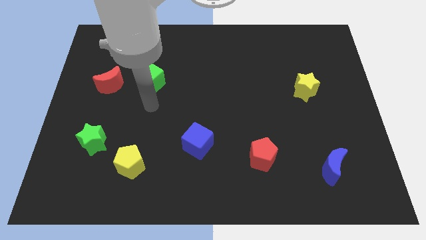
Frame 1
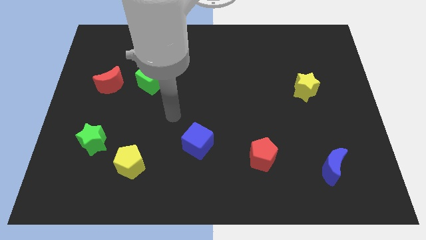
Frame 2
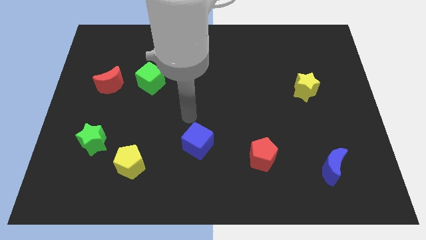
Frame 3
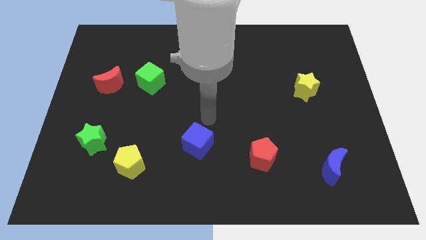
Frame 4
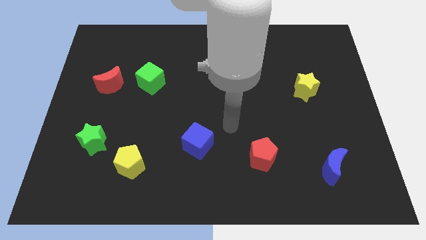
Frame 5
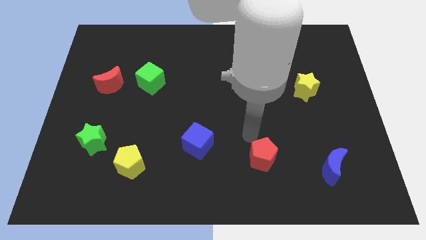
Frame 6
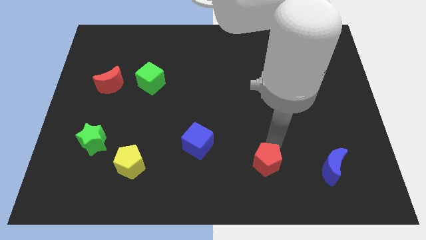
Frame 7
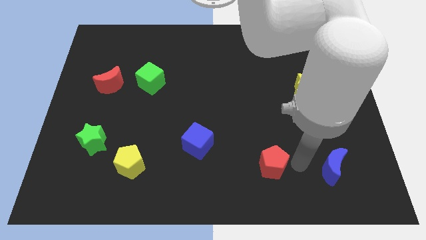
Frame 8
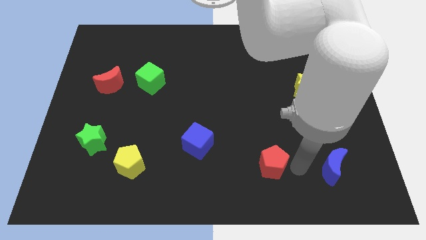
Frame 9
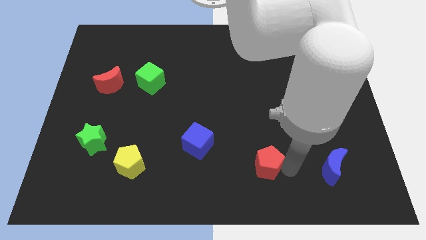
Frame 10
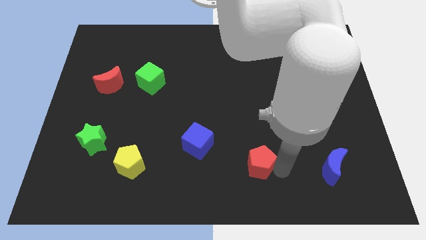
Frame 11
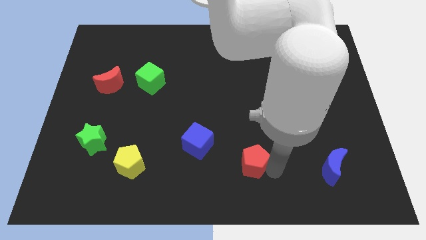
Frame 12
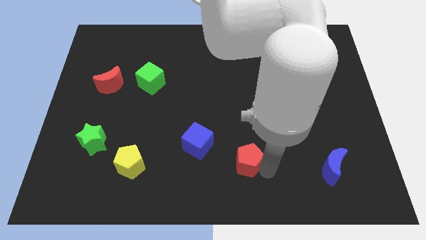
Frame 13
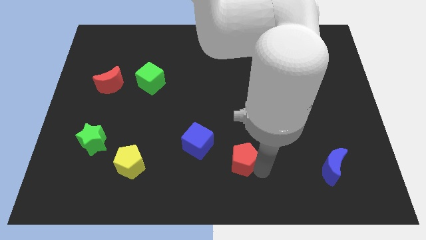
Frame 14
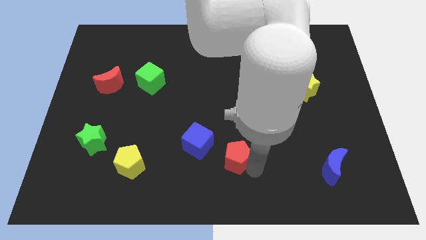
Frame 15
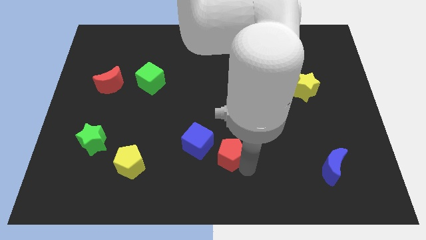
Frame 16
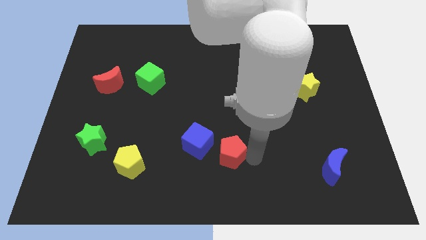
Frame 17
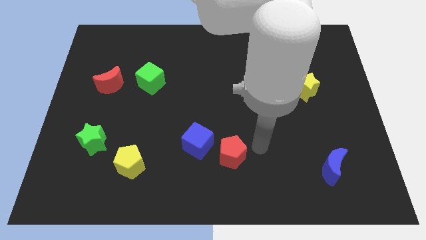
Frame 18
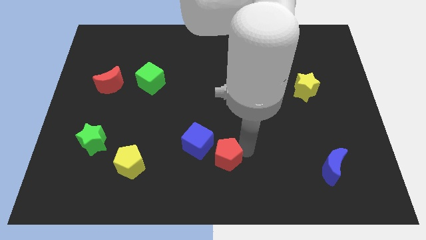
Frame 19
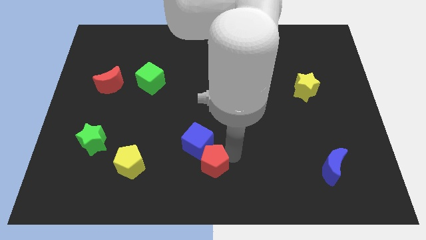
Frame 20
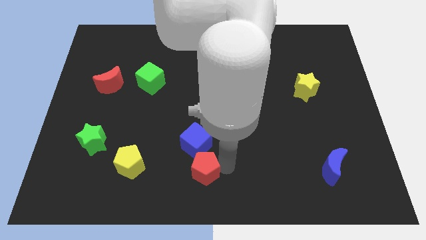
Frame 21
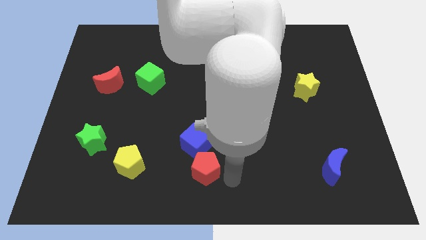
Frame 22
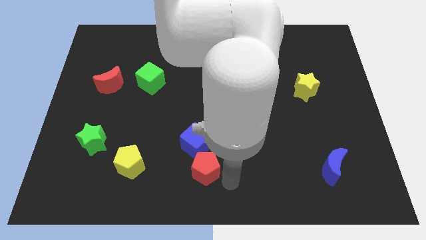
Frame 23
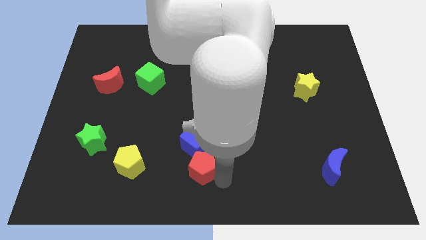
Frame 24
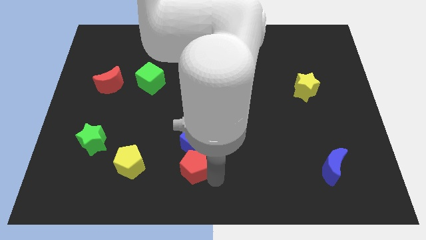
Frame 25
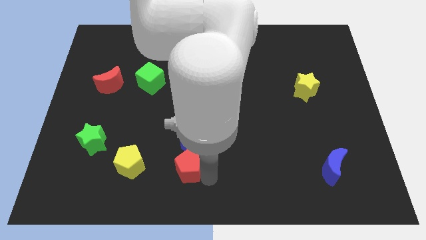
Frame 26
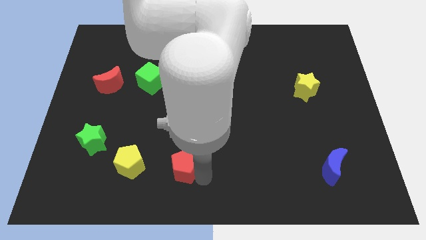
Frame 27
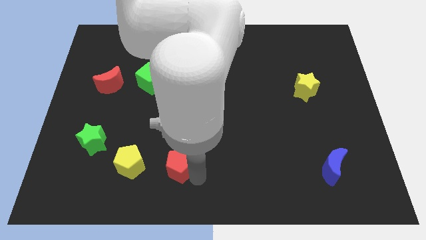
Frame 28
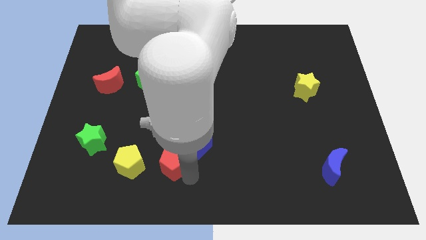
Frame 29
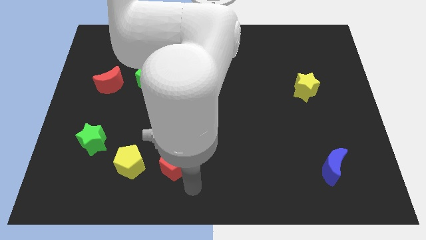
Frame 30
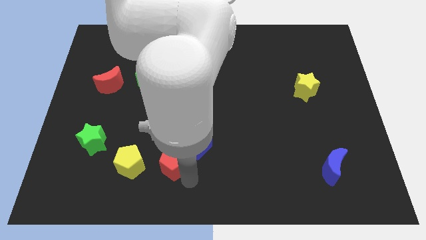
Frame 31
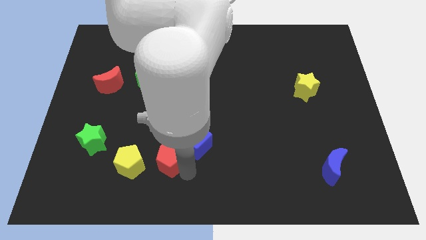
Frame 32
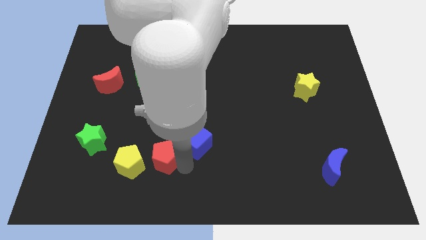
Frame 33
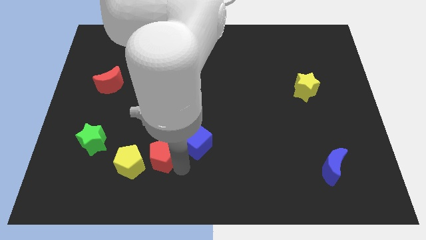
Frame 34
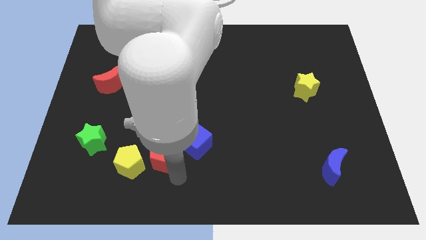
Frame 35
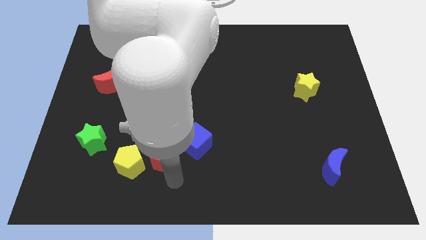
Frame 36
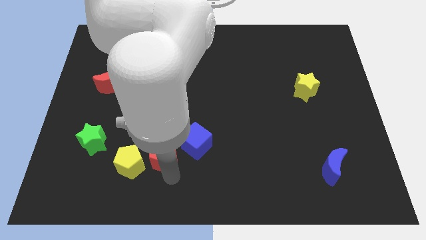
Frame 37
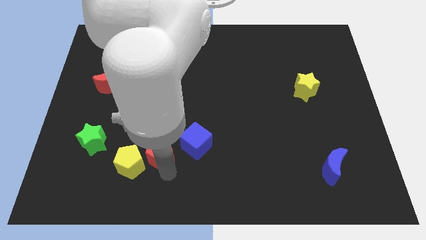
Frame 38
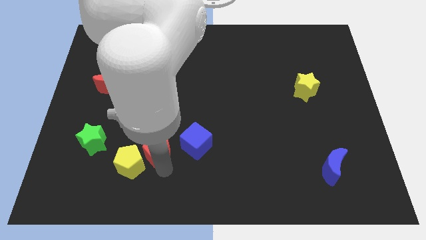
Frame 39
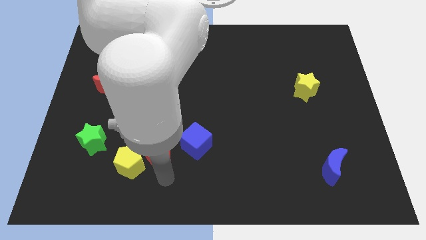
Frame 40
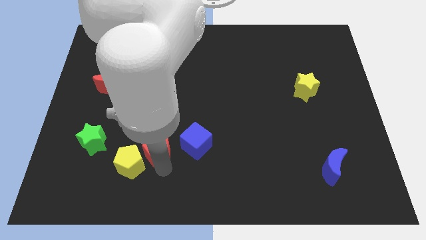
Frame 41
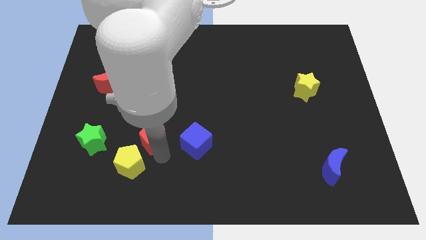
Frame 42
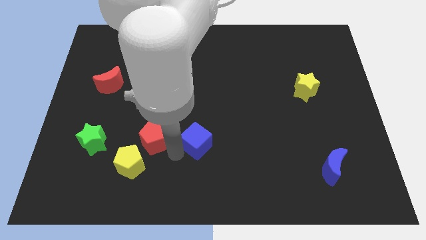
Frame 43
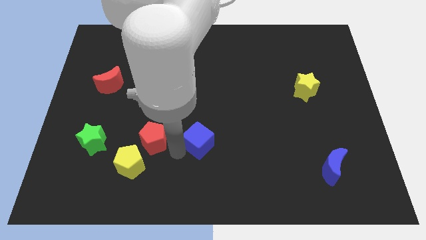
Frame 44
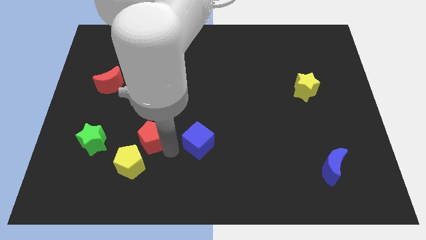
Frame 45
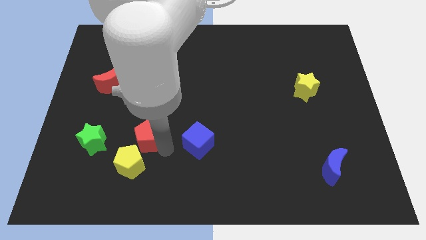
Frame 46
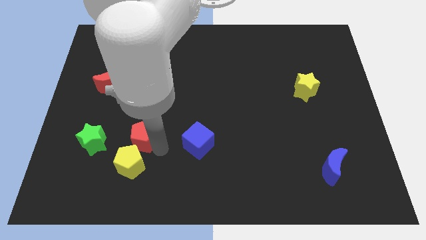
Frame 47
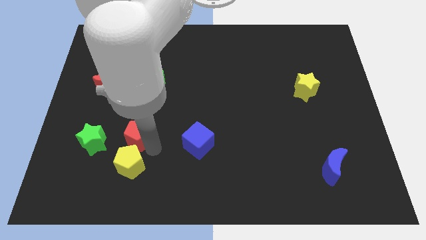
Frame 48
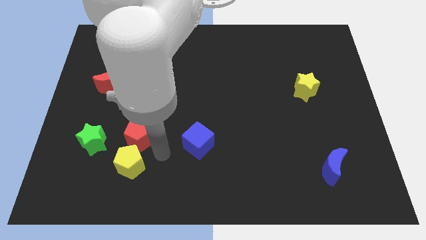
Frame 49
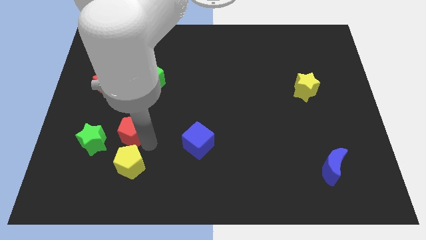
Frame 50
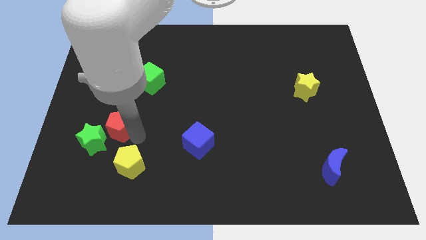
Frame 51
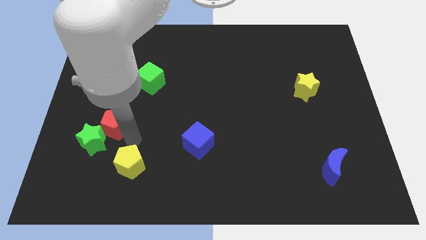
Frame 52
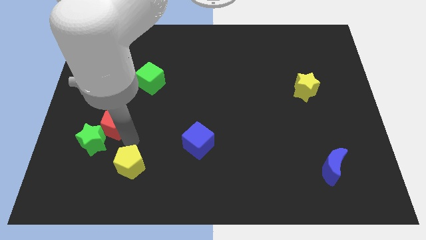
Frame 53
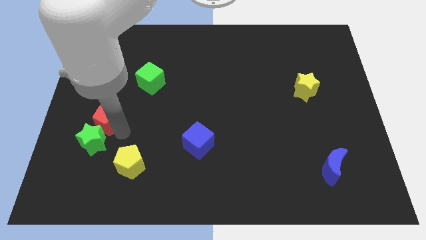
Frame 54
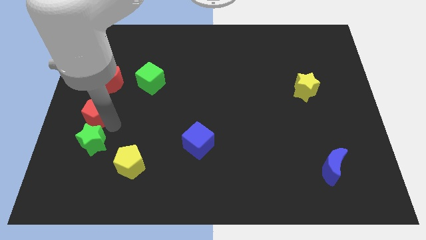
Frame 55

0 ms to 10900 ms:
slide the red pentagon to the center left

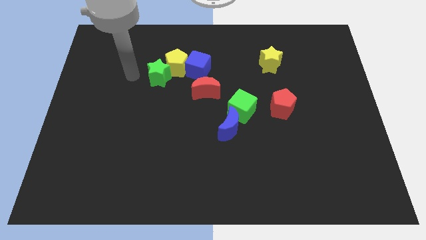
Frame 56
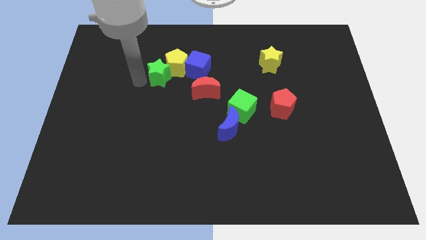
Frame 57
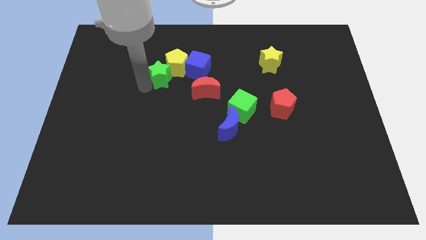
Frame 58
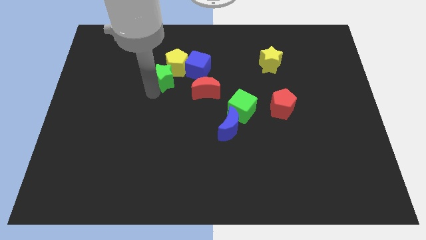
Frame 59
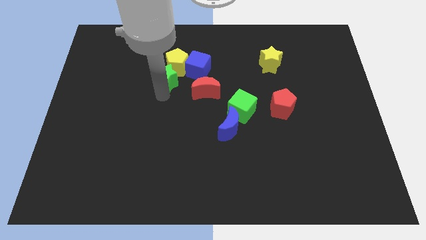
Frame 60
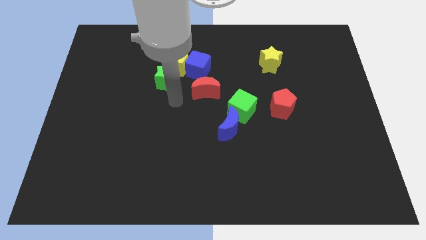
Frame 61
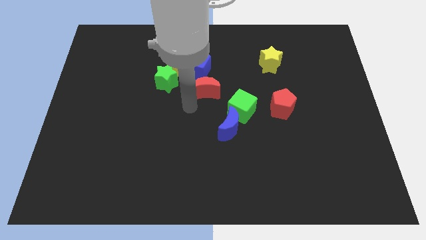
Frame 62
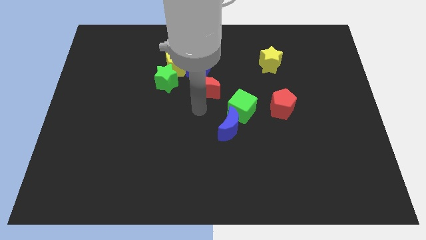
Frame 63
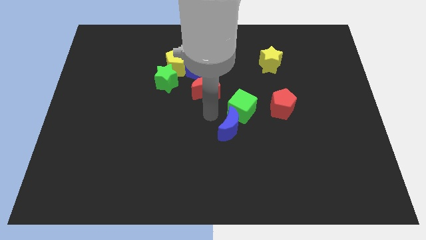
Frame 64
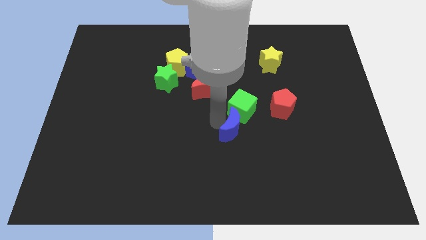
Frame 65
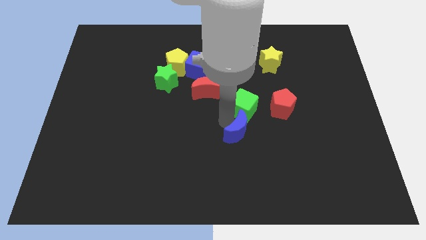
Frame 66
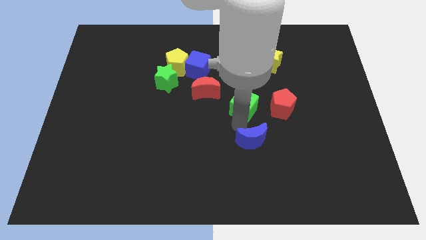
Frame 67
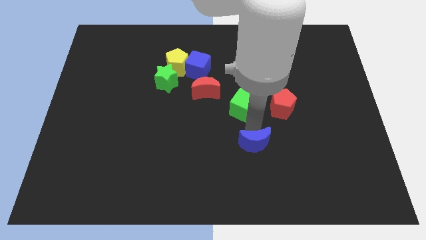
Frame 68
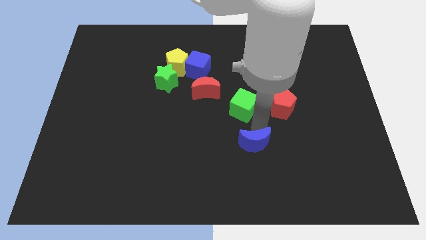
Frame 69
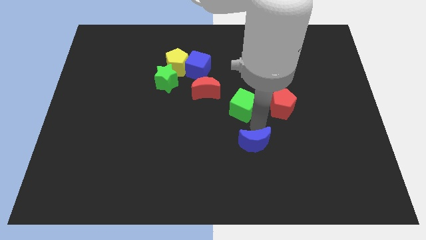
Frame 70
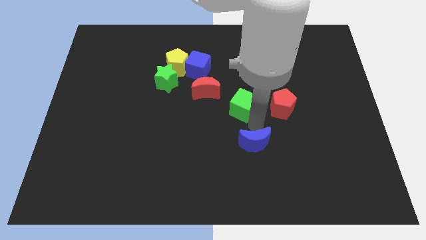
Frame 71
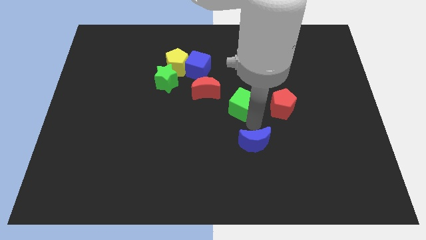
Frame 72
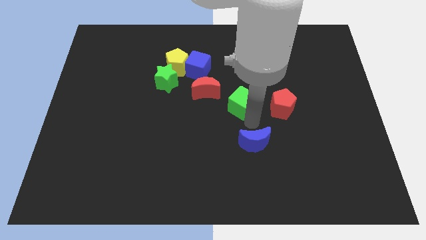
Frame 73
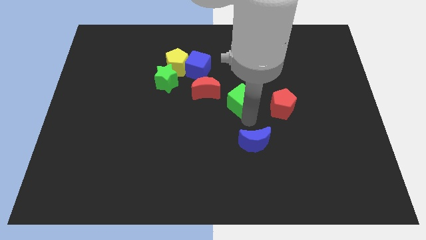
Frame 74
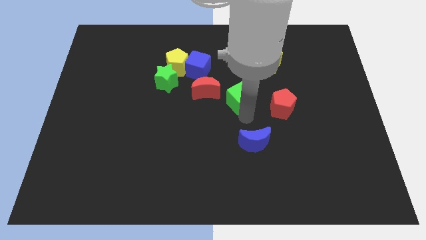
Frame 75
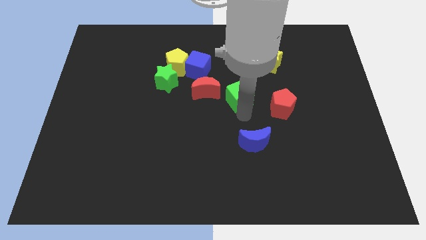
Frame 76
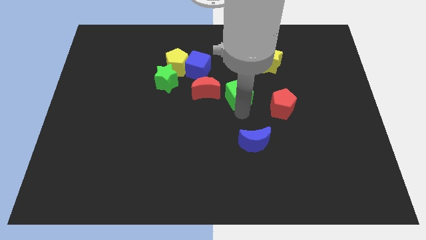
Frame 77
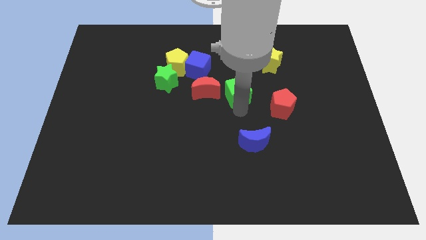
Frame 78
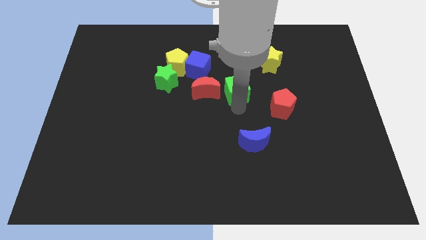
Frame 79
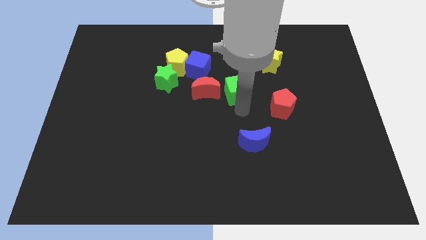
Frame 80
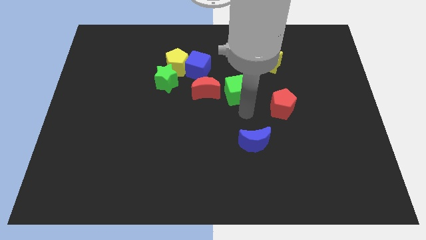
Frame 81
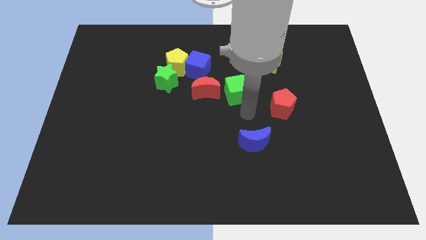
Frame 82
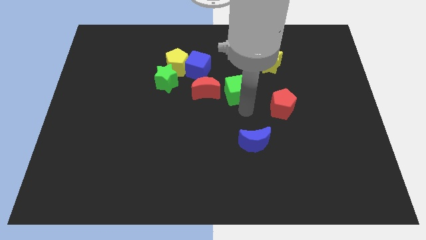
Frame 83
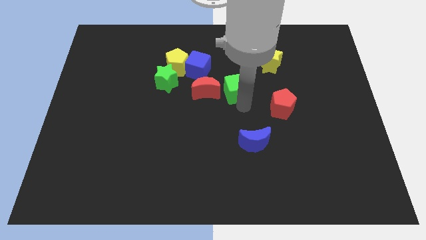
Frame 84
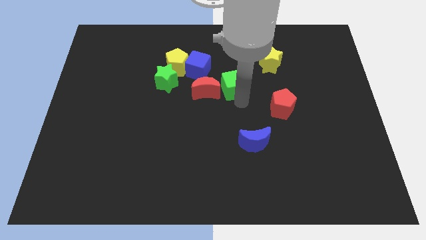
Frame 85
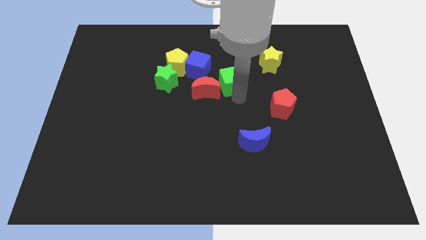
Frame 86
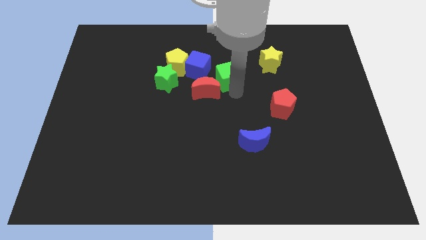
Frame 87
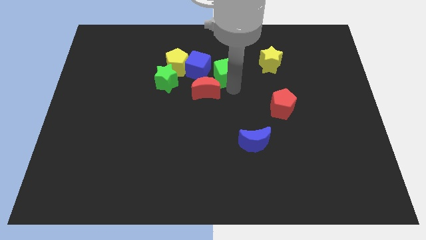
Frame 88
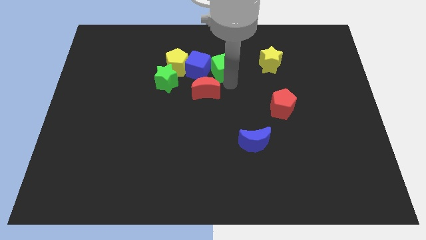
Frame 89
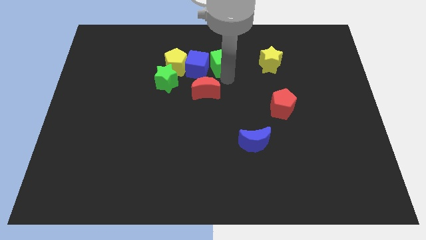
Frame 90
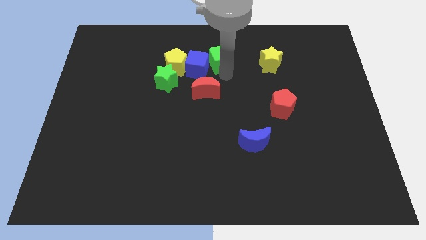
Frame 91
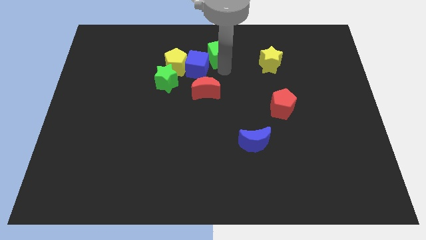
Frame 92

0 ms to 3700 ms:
push the green cube to the top
